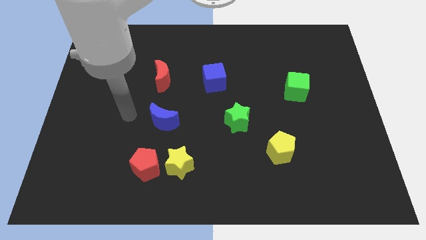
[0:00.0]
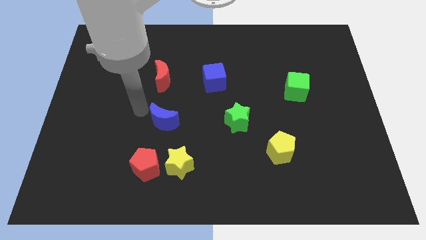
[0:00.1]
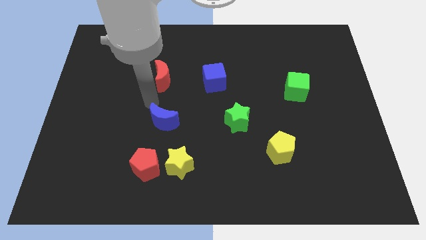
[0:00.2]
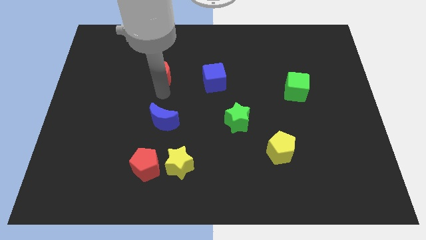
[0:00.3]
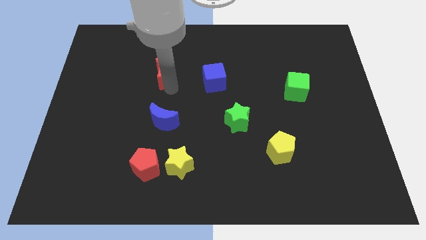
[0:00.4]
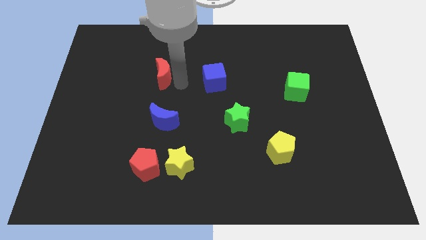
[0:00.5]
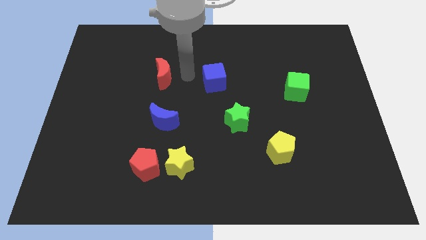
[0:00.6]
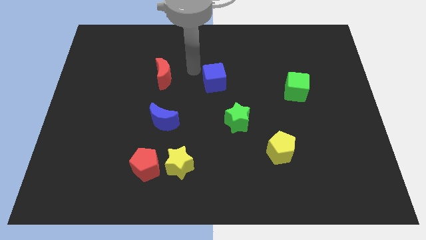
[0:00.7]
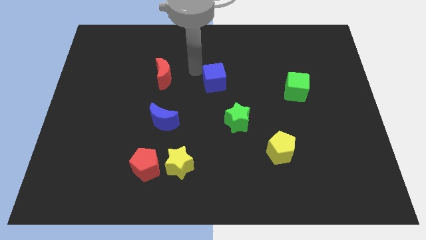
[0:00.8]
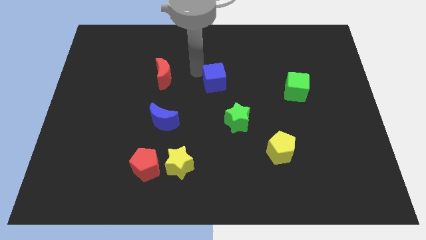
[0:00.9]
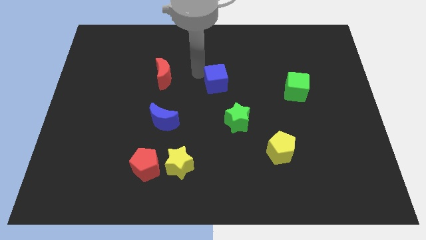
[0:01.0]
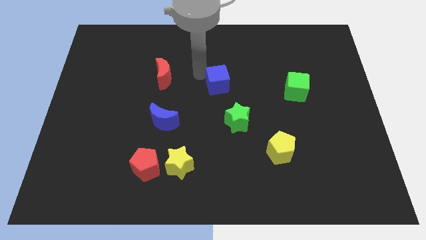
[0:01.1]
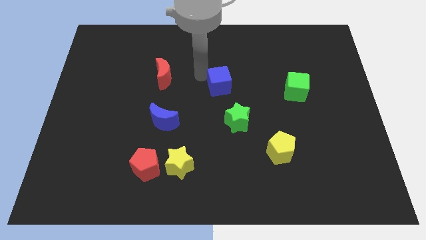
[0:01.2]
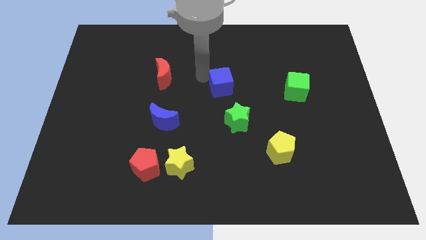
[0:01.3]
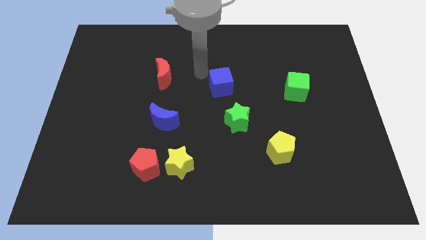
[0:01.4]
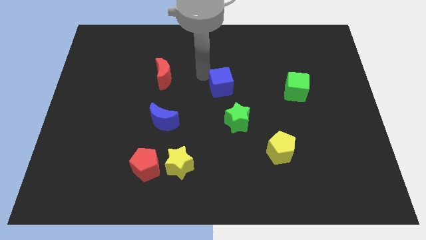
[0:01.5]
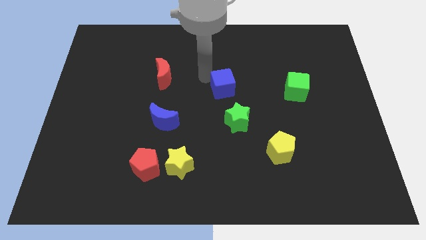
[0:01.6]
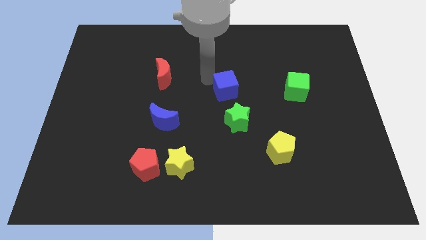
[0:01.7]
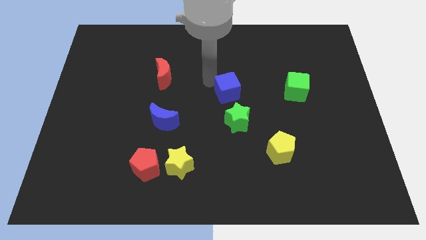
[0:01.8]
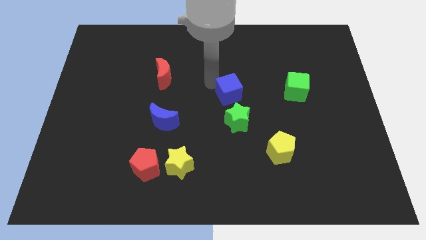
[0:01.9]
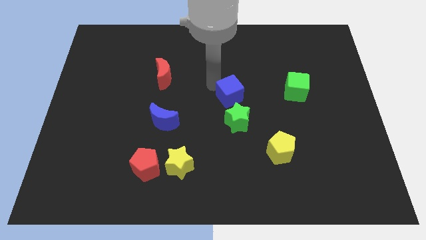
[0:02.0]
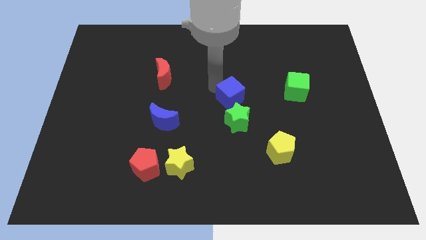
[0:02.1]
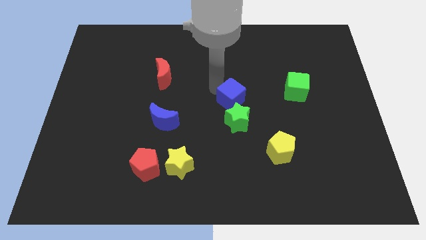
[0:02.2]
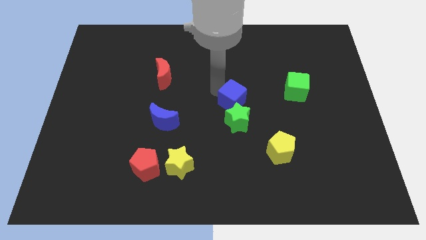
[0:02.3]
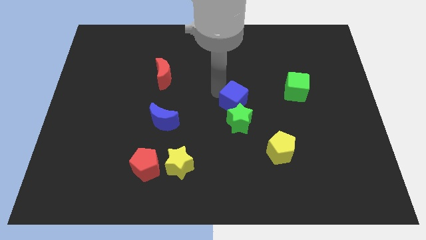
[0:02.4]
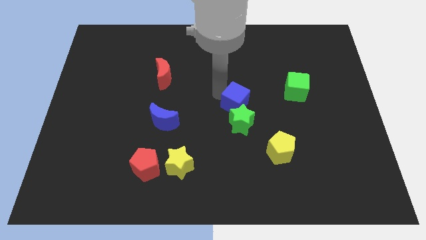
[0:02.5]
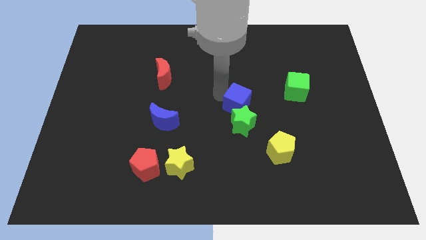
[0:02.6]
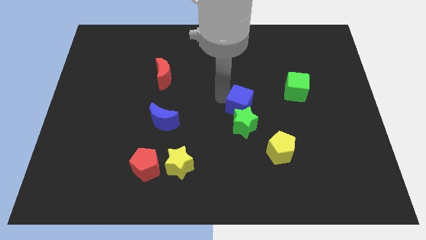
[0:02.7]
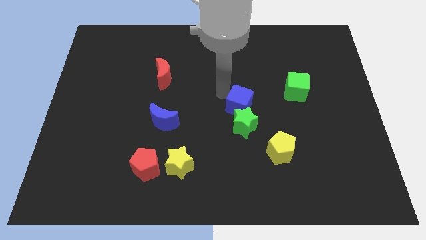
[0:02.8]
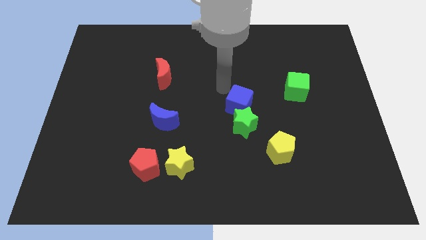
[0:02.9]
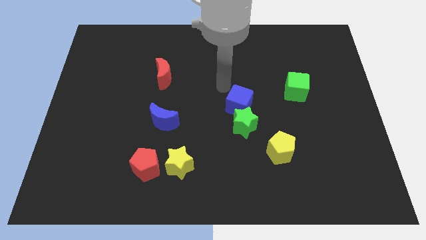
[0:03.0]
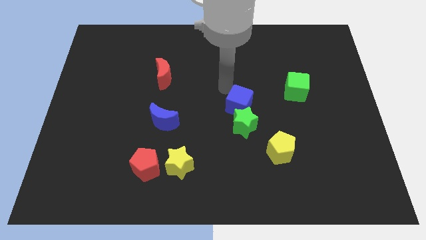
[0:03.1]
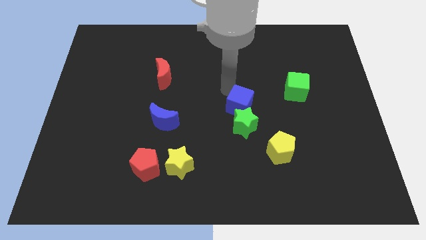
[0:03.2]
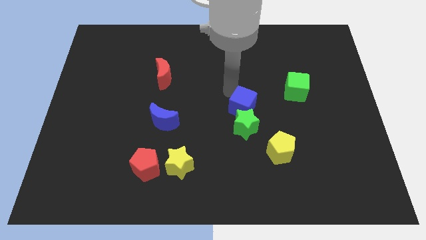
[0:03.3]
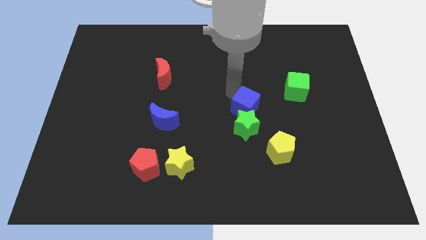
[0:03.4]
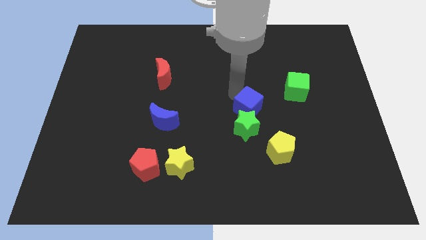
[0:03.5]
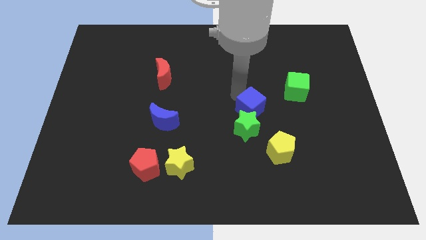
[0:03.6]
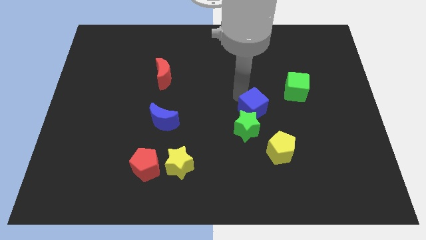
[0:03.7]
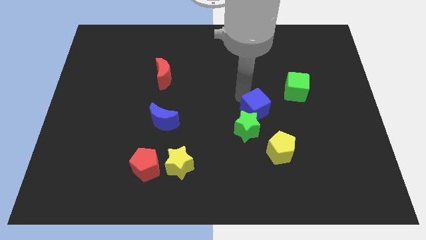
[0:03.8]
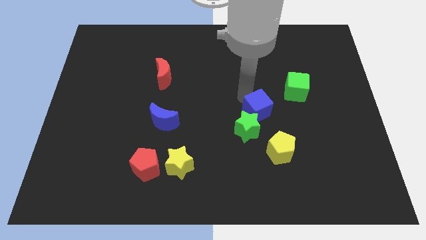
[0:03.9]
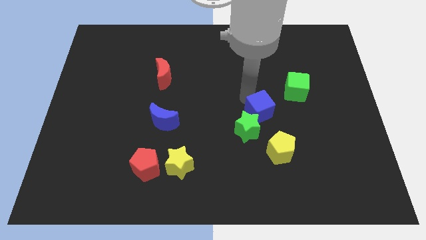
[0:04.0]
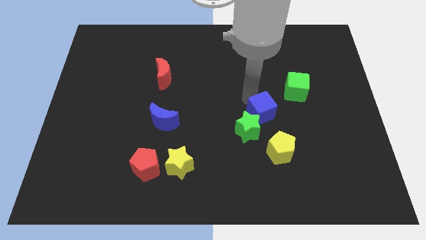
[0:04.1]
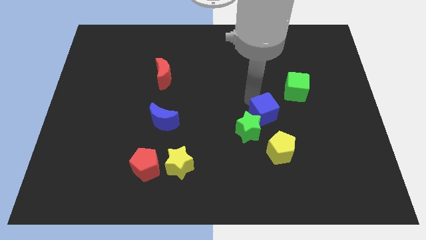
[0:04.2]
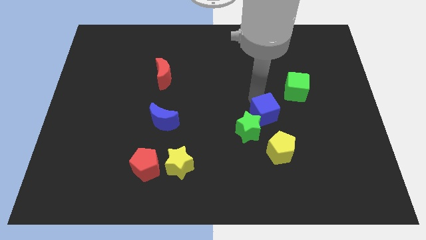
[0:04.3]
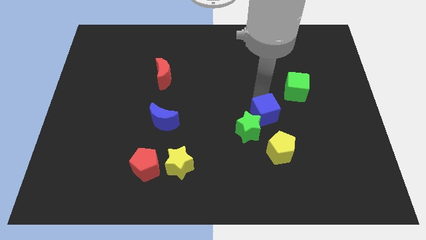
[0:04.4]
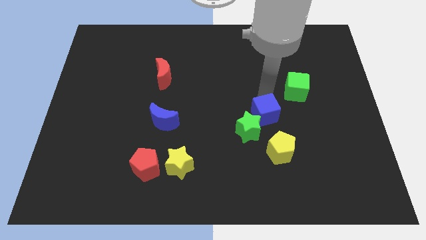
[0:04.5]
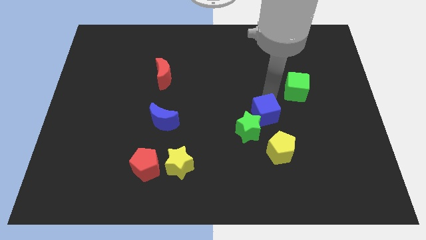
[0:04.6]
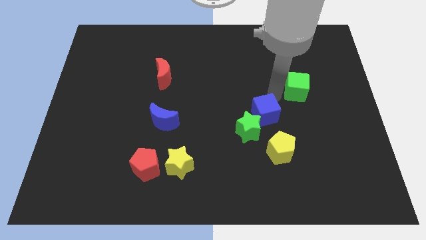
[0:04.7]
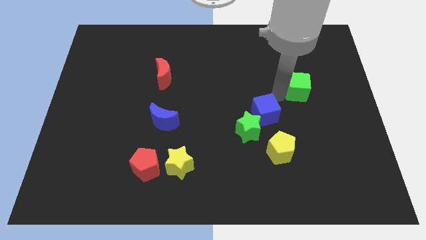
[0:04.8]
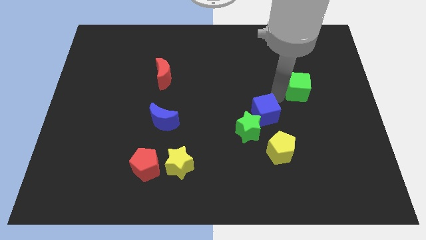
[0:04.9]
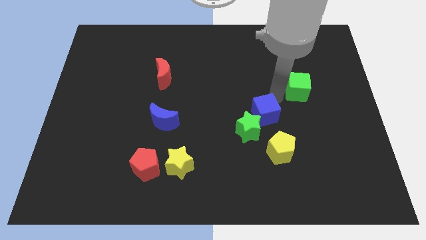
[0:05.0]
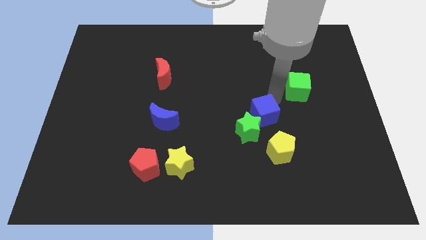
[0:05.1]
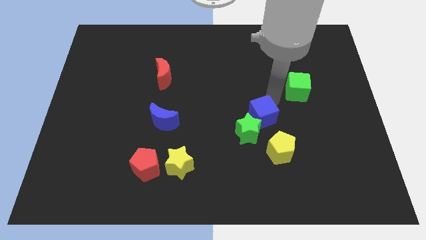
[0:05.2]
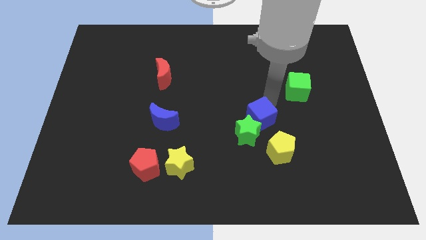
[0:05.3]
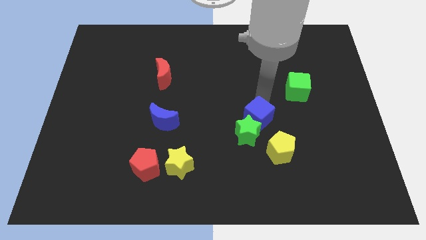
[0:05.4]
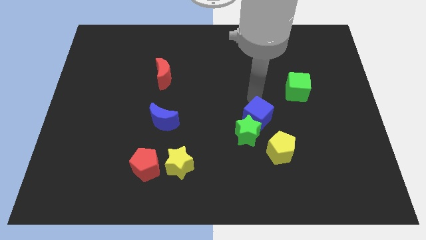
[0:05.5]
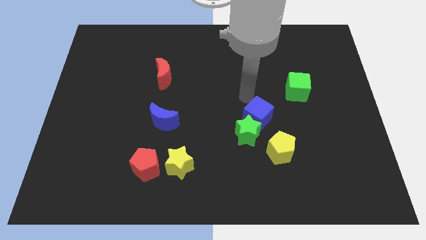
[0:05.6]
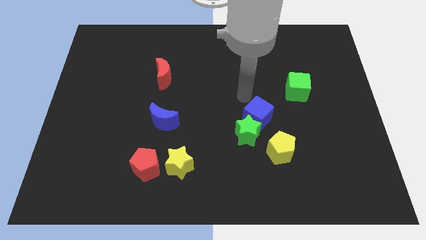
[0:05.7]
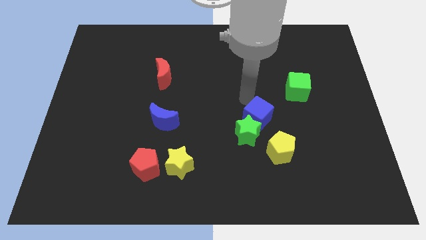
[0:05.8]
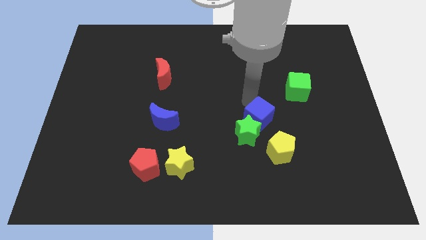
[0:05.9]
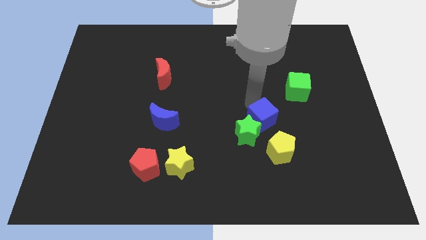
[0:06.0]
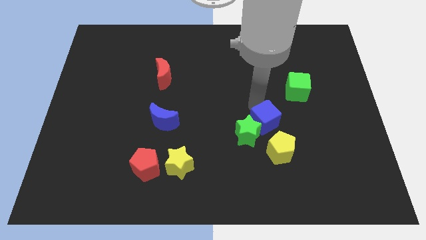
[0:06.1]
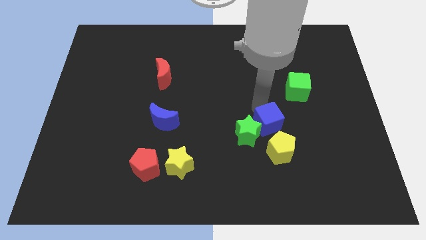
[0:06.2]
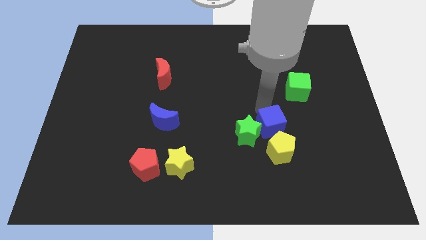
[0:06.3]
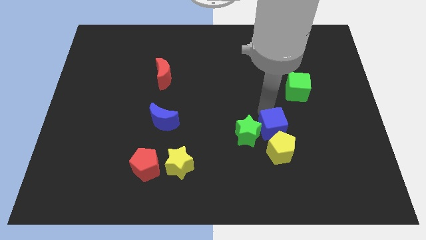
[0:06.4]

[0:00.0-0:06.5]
slide the blue cube to the yellow pentagon
